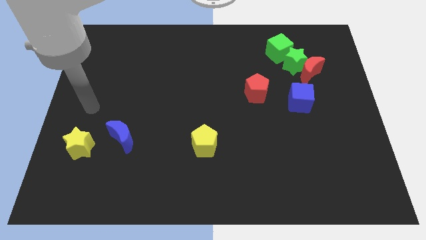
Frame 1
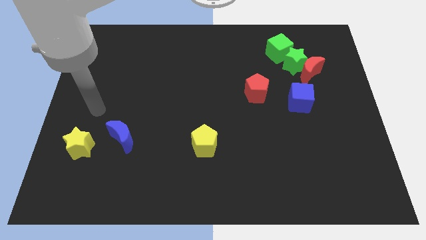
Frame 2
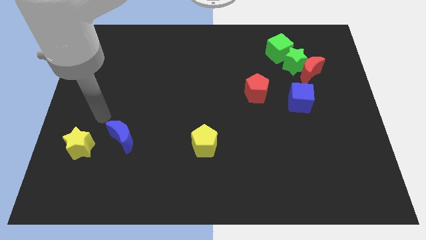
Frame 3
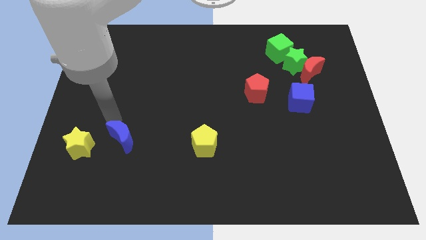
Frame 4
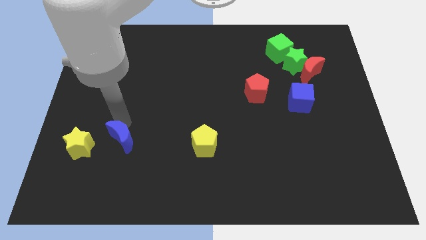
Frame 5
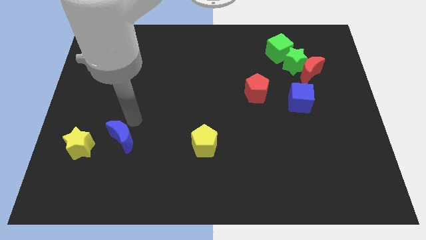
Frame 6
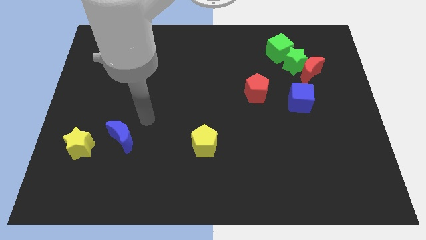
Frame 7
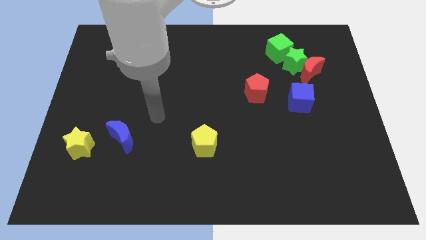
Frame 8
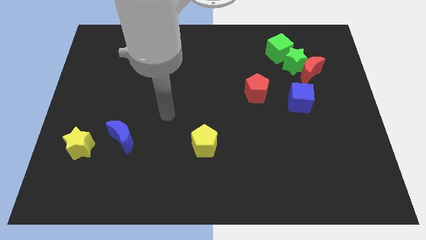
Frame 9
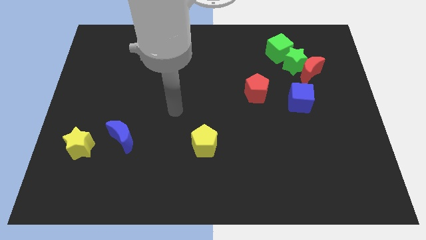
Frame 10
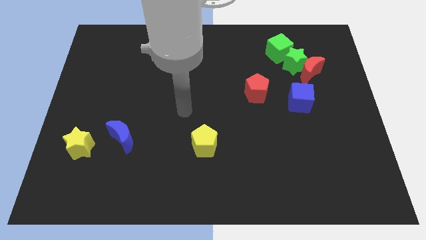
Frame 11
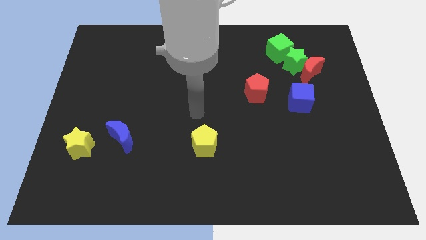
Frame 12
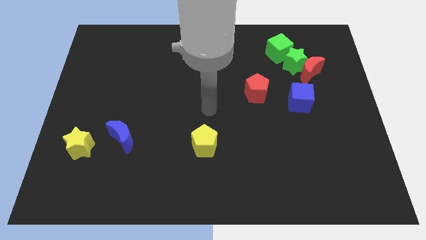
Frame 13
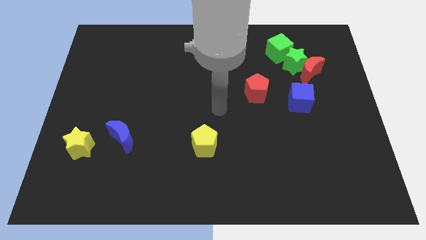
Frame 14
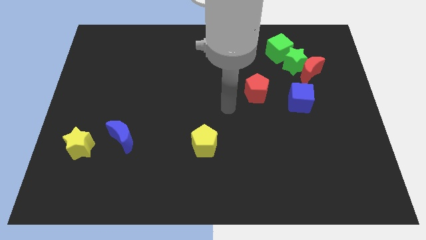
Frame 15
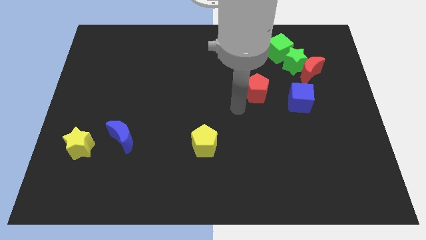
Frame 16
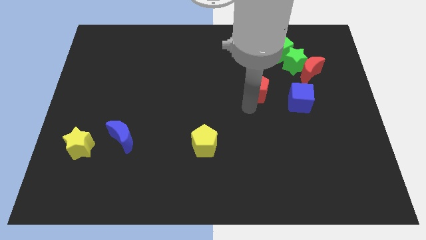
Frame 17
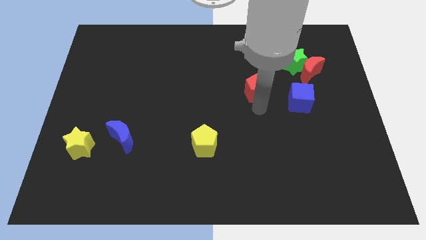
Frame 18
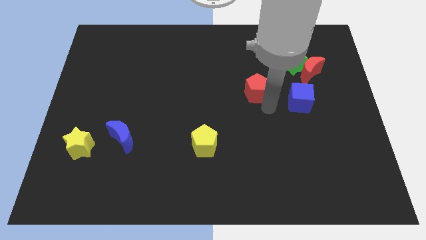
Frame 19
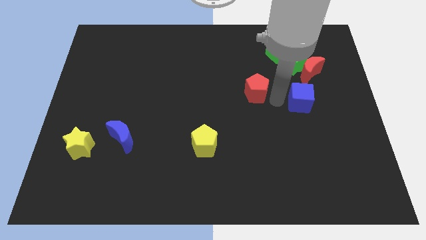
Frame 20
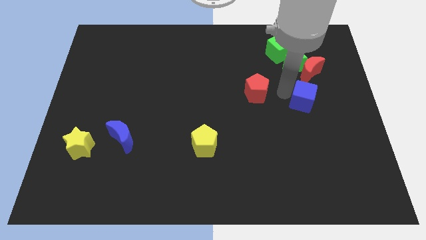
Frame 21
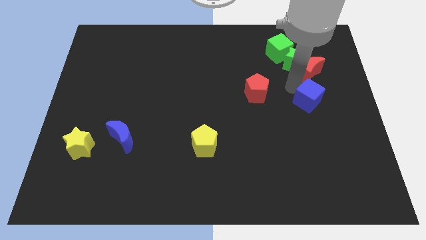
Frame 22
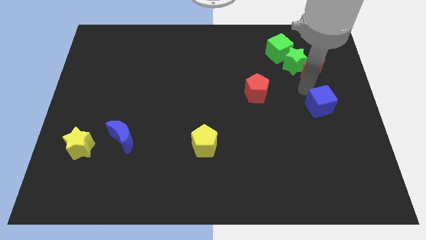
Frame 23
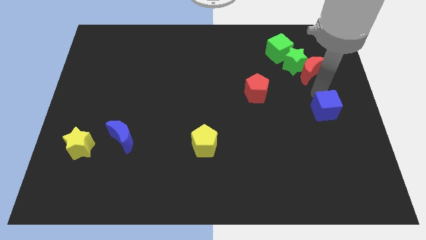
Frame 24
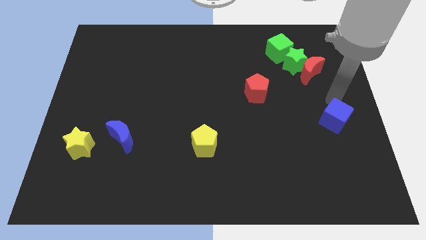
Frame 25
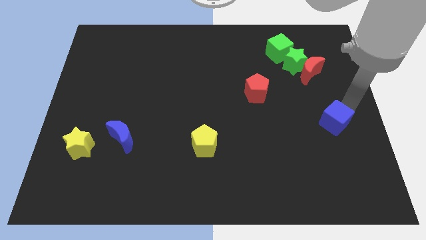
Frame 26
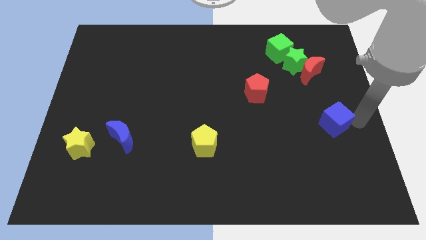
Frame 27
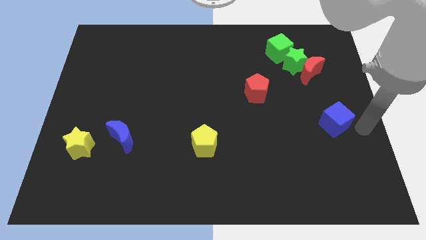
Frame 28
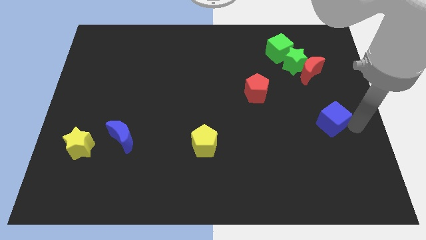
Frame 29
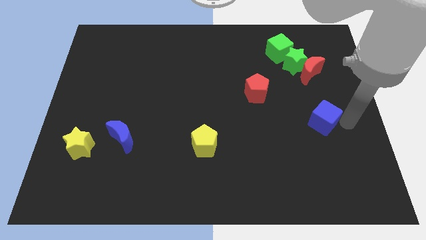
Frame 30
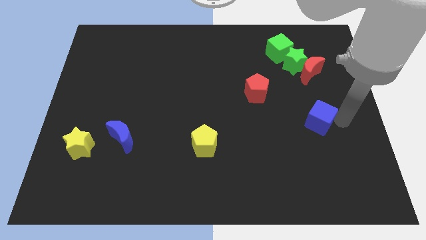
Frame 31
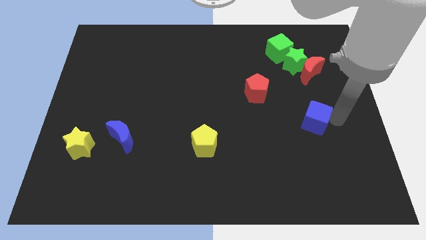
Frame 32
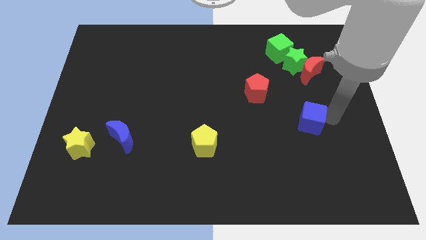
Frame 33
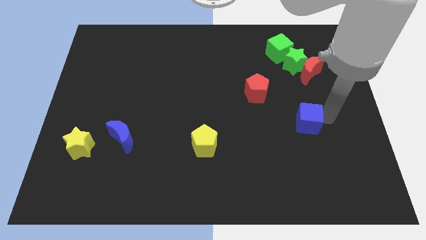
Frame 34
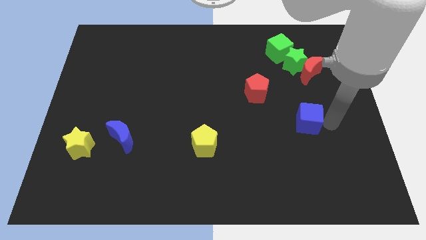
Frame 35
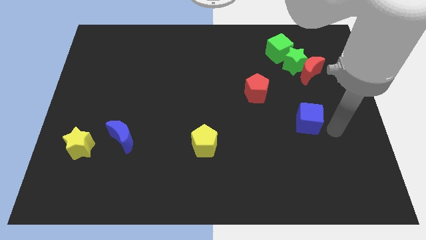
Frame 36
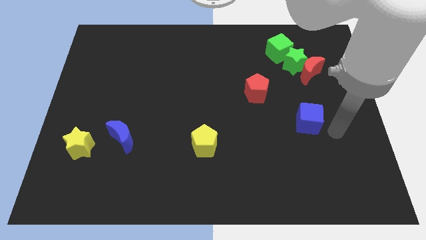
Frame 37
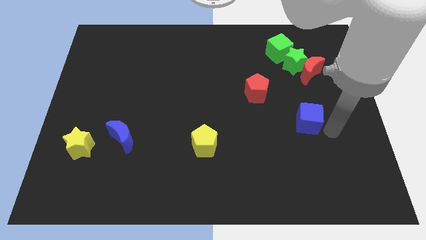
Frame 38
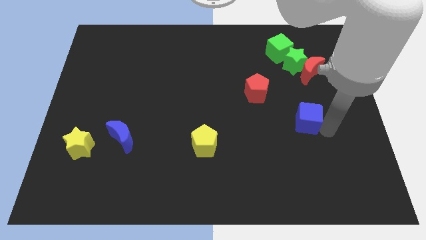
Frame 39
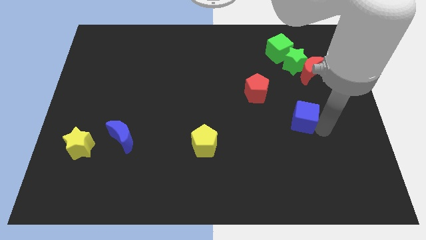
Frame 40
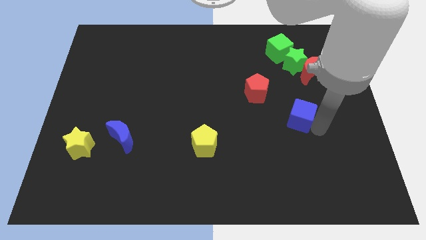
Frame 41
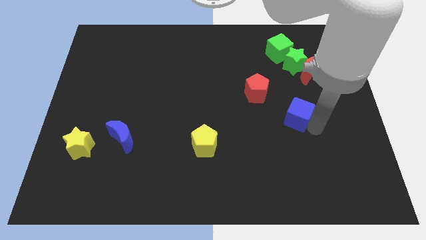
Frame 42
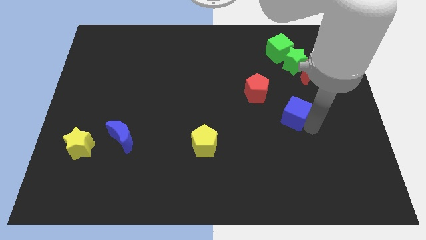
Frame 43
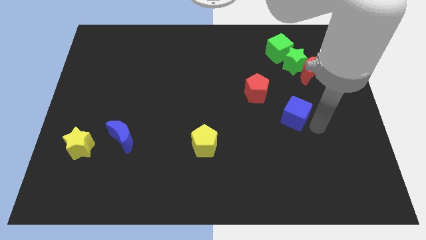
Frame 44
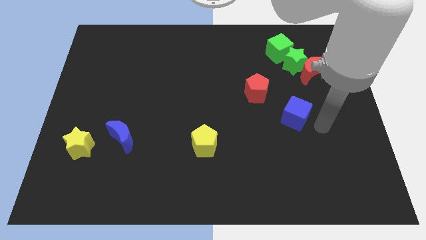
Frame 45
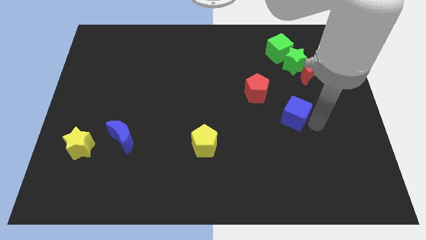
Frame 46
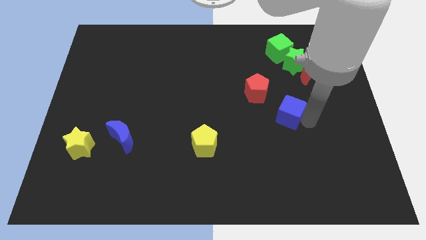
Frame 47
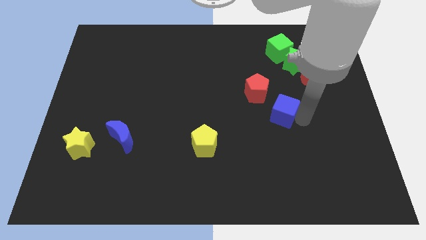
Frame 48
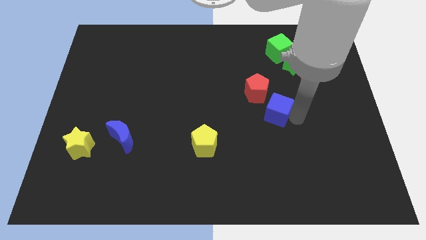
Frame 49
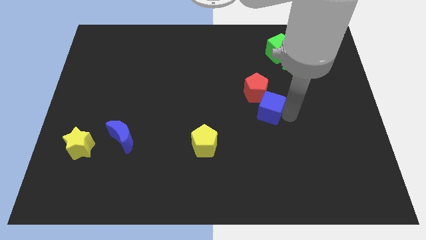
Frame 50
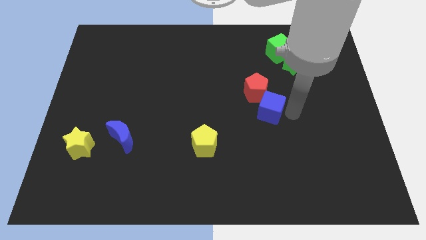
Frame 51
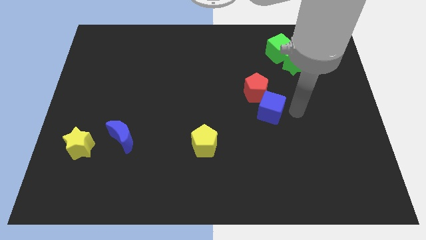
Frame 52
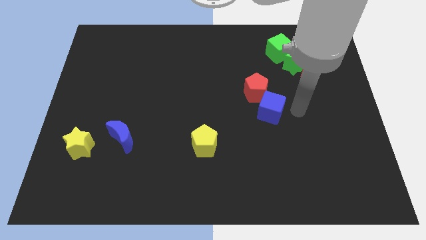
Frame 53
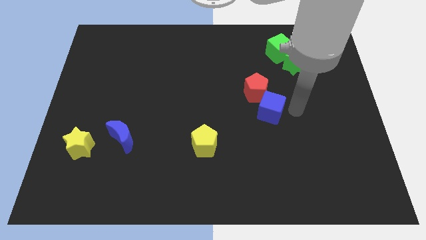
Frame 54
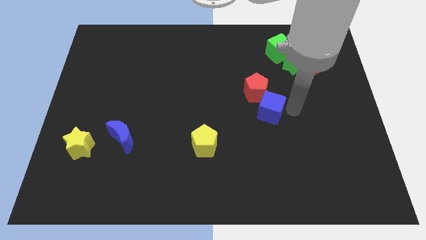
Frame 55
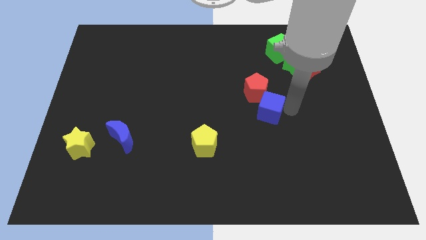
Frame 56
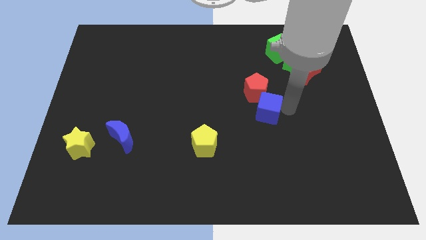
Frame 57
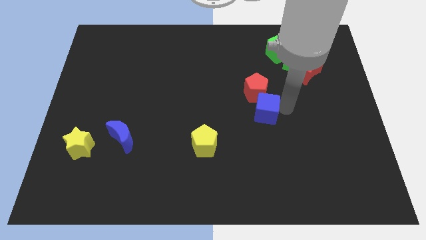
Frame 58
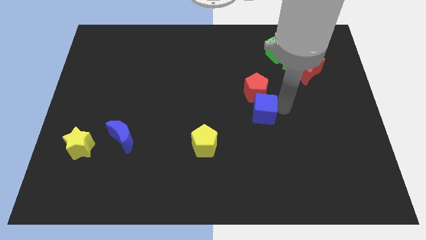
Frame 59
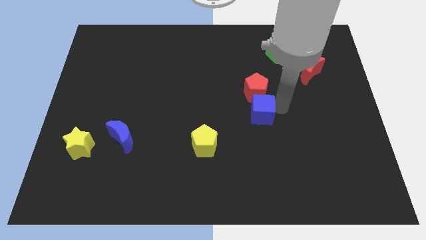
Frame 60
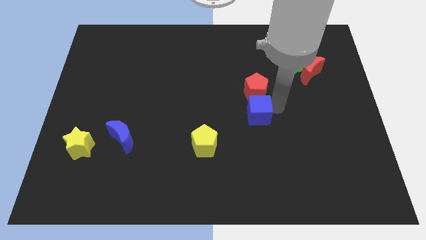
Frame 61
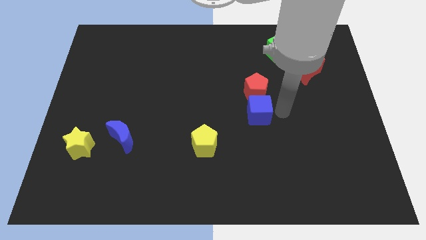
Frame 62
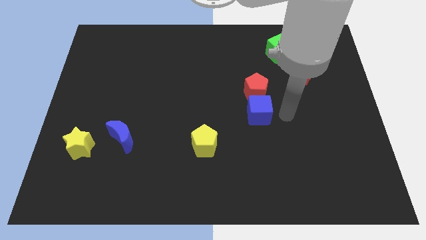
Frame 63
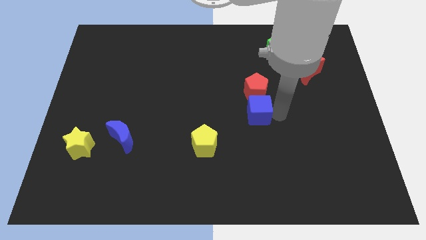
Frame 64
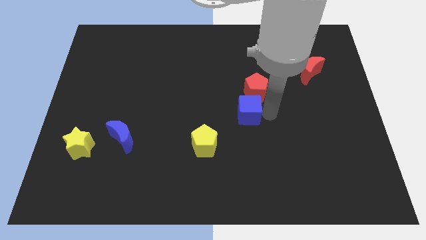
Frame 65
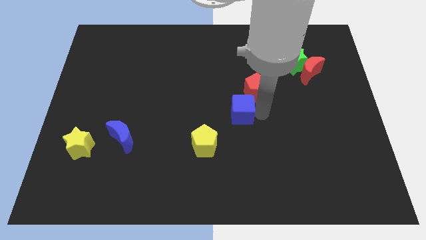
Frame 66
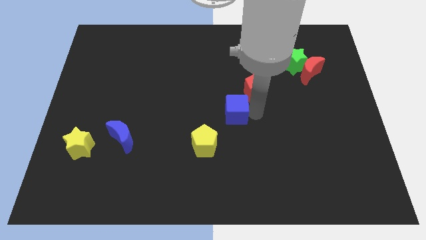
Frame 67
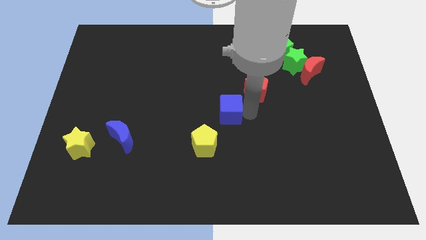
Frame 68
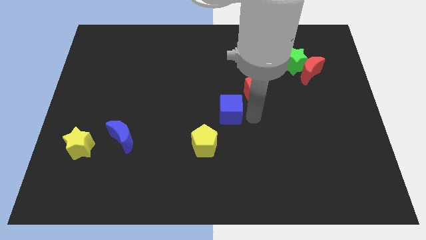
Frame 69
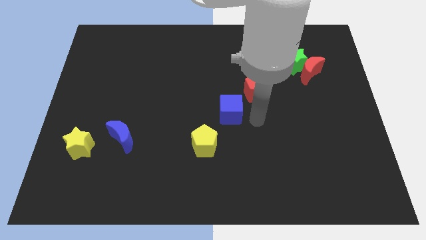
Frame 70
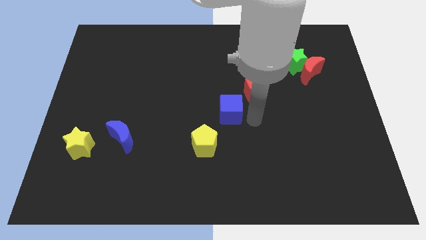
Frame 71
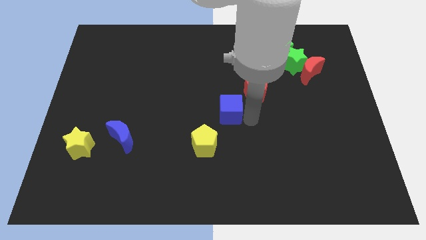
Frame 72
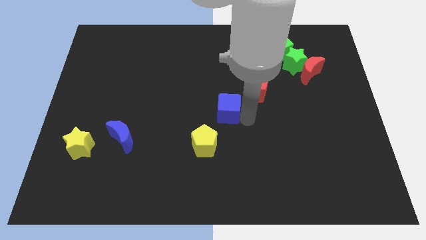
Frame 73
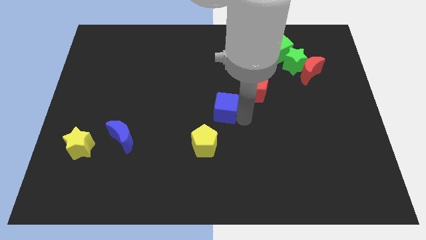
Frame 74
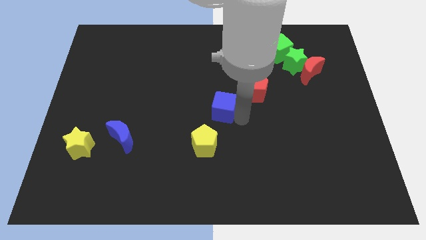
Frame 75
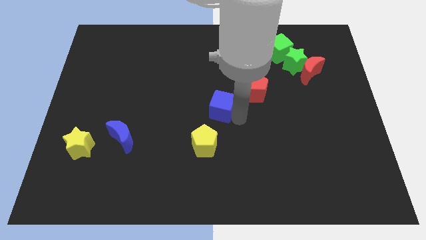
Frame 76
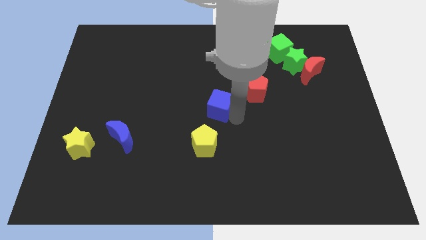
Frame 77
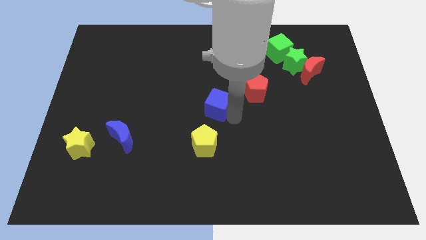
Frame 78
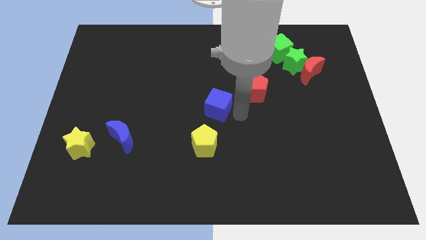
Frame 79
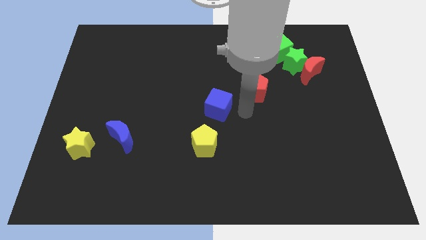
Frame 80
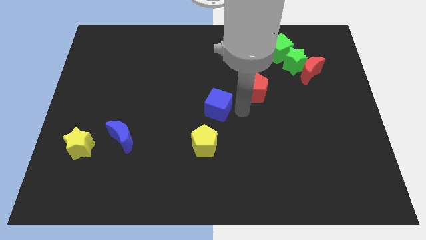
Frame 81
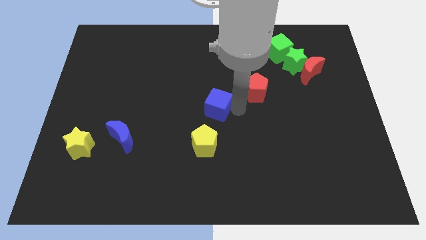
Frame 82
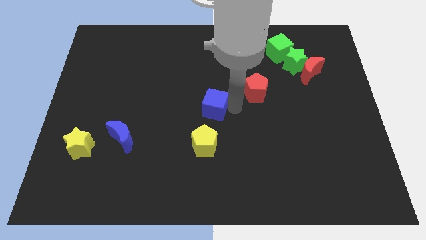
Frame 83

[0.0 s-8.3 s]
slide the blue cube left

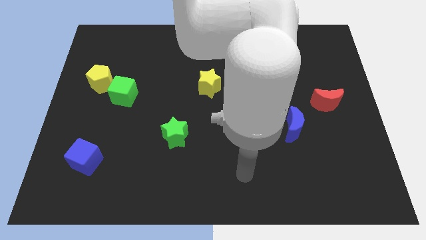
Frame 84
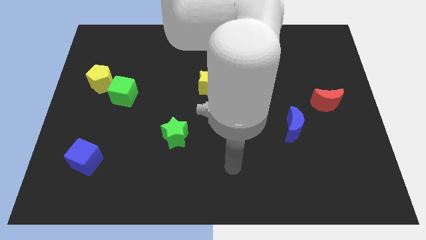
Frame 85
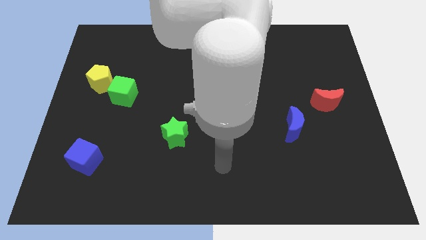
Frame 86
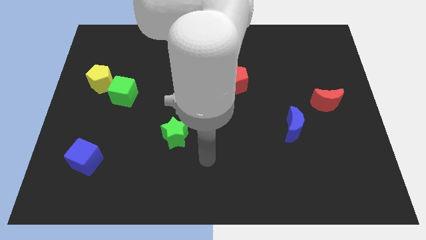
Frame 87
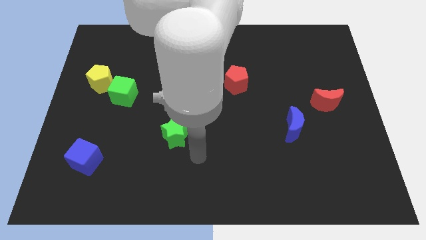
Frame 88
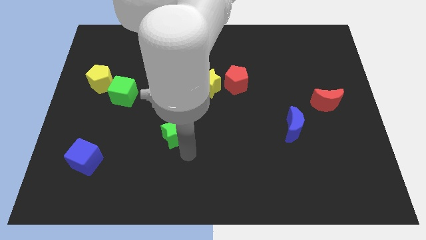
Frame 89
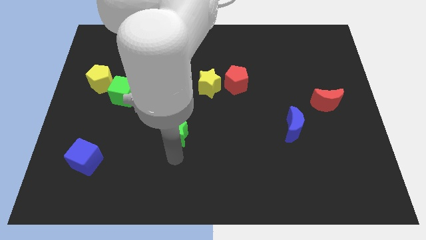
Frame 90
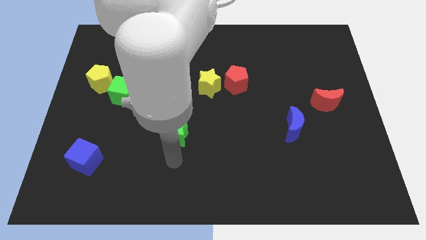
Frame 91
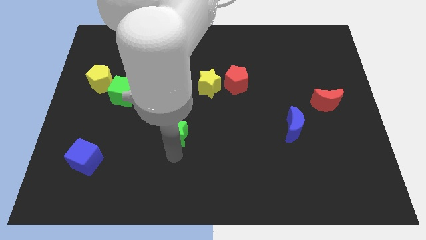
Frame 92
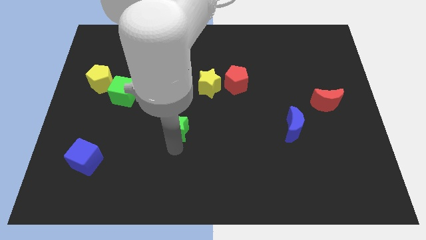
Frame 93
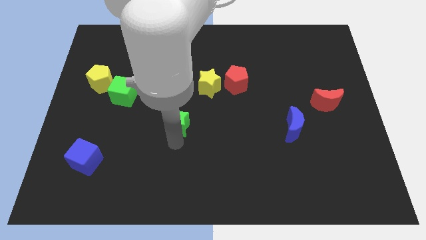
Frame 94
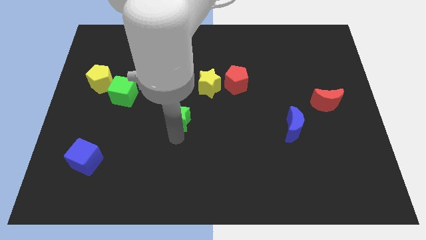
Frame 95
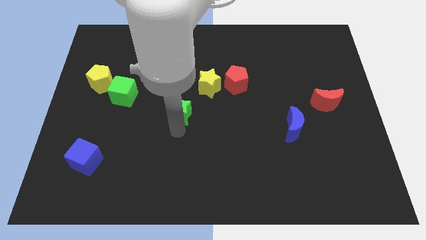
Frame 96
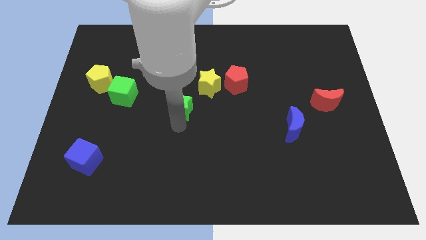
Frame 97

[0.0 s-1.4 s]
slightly push the green star up
